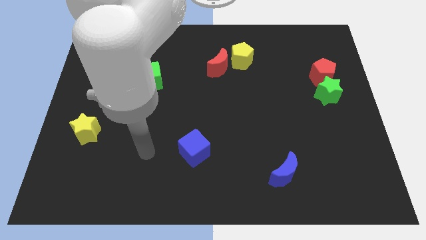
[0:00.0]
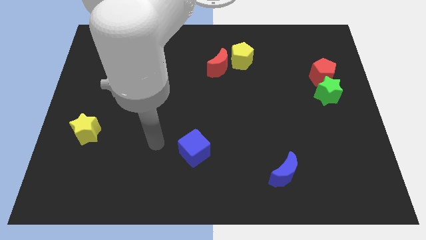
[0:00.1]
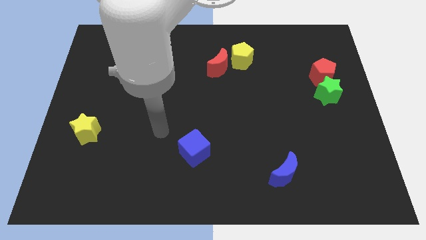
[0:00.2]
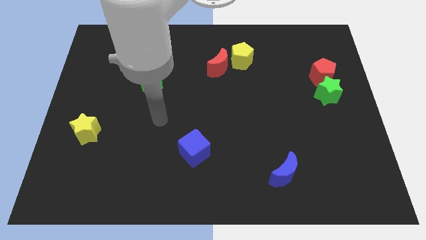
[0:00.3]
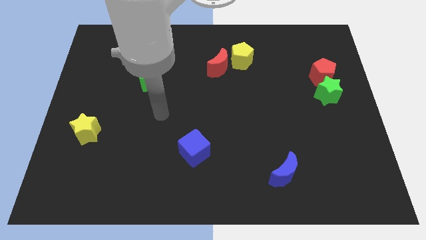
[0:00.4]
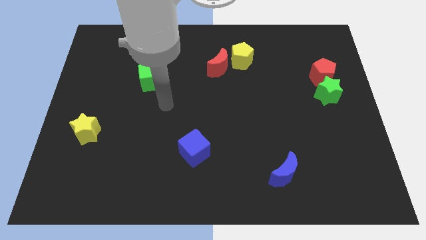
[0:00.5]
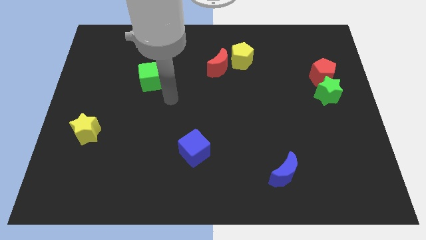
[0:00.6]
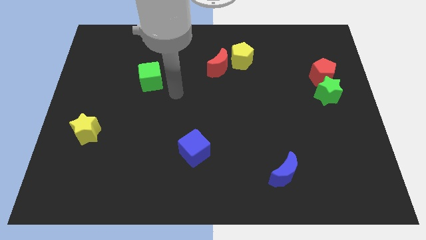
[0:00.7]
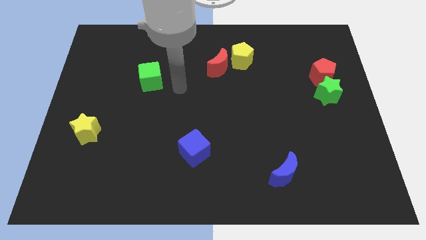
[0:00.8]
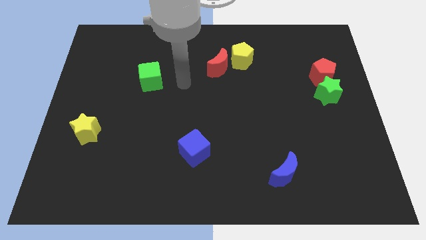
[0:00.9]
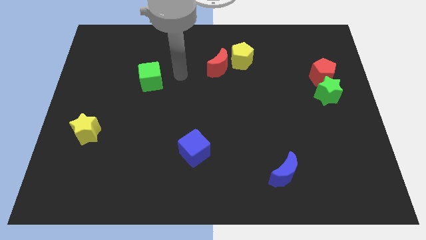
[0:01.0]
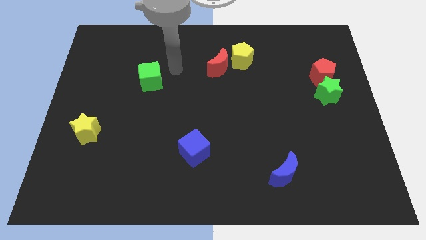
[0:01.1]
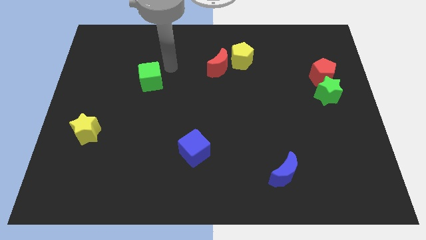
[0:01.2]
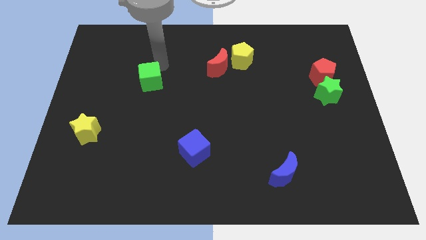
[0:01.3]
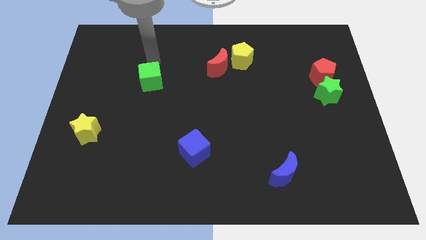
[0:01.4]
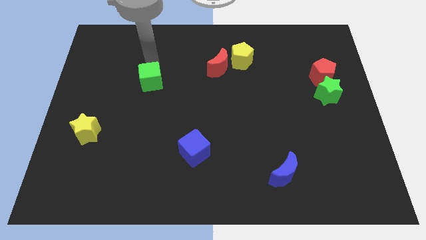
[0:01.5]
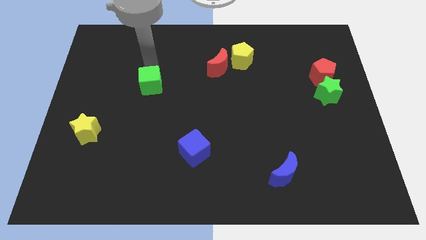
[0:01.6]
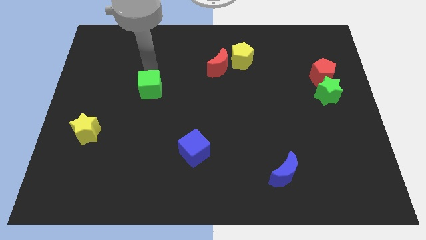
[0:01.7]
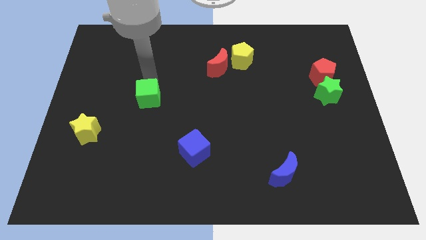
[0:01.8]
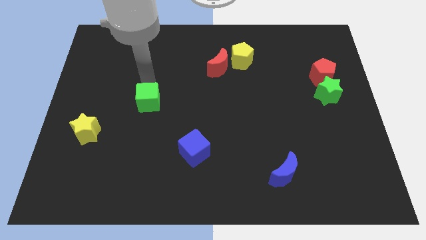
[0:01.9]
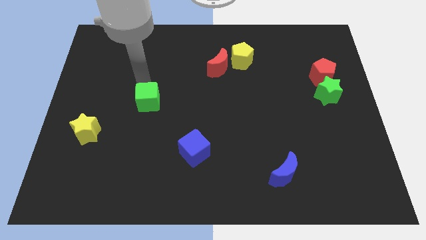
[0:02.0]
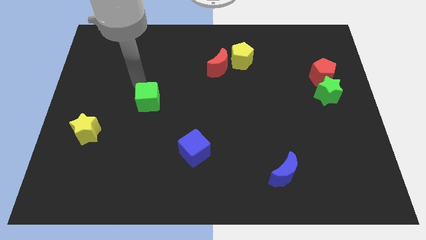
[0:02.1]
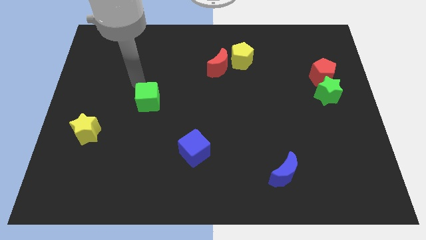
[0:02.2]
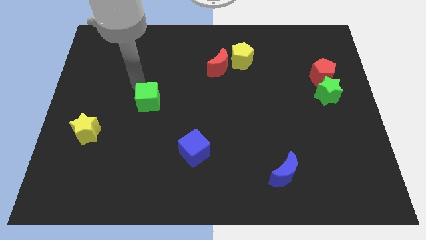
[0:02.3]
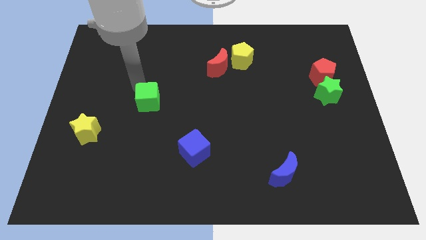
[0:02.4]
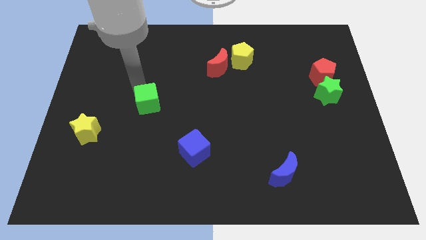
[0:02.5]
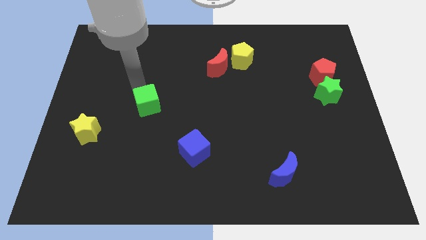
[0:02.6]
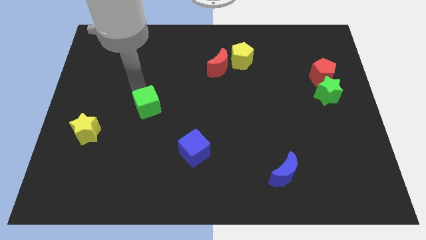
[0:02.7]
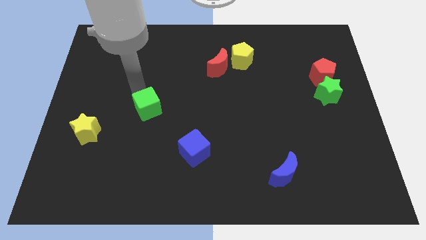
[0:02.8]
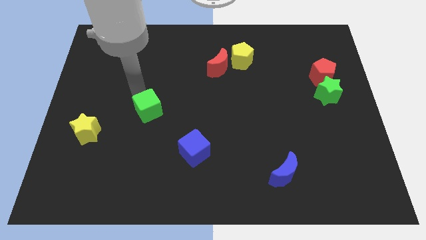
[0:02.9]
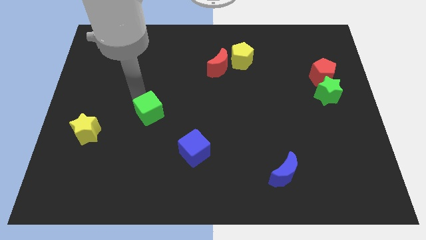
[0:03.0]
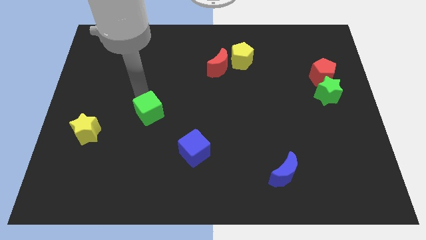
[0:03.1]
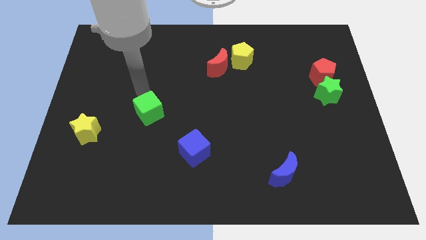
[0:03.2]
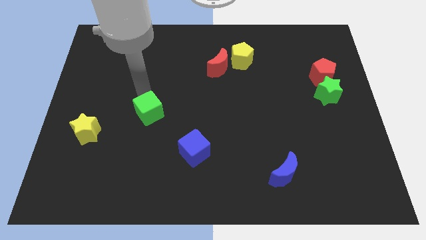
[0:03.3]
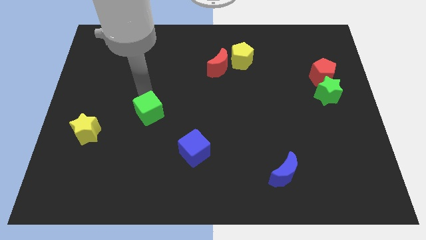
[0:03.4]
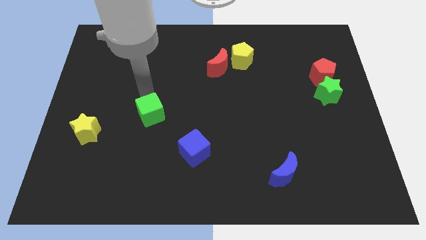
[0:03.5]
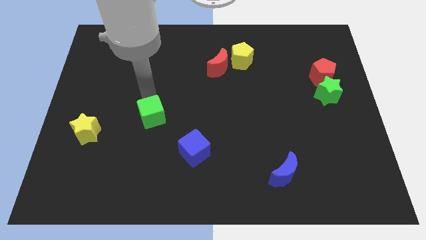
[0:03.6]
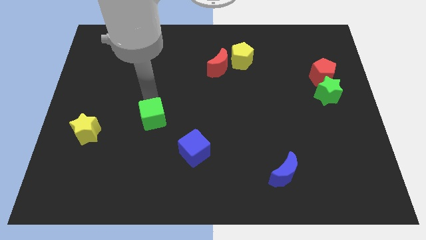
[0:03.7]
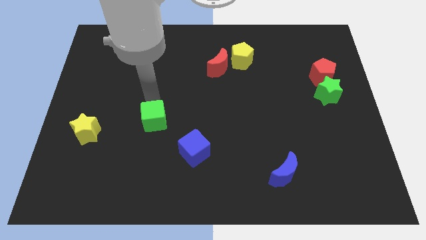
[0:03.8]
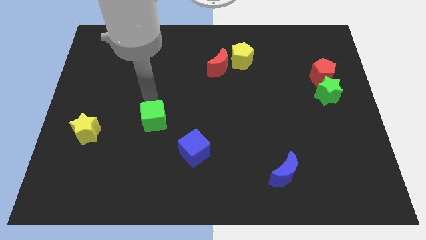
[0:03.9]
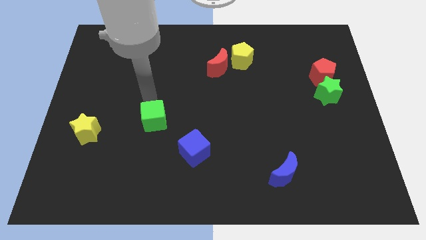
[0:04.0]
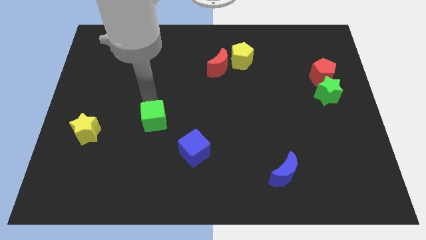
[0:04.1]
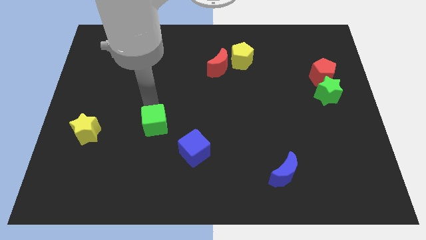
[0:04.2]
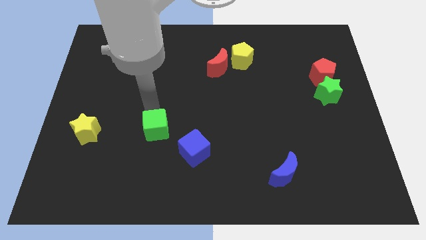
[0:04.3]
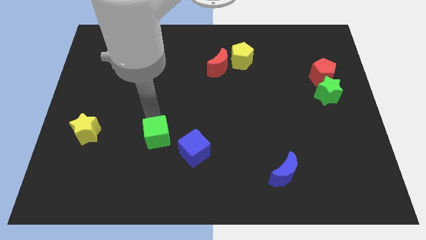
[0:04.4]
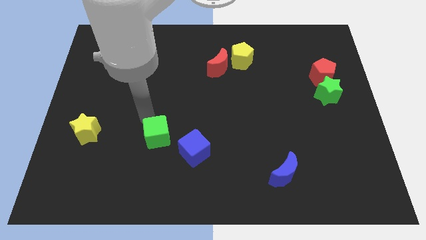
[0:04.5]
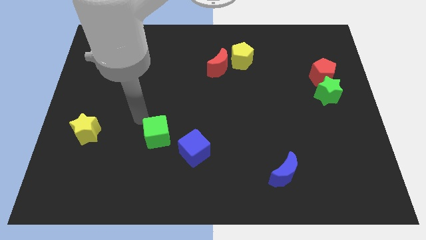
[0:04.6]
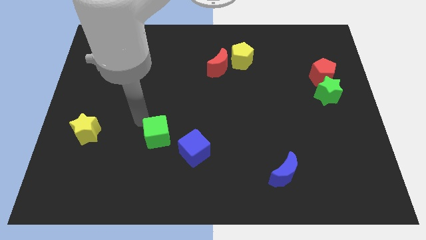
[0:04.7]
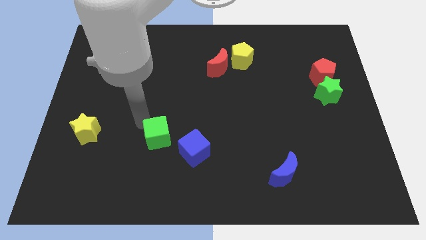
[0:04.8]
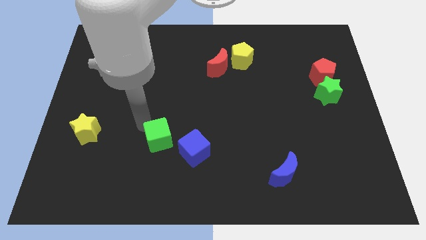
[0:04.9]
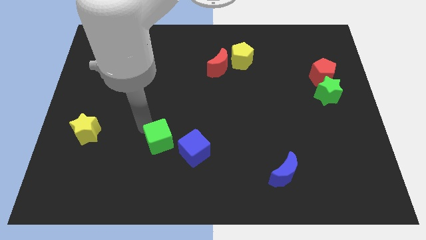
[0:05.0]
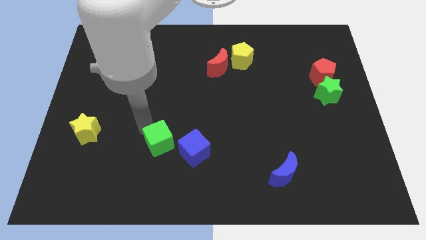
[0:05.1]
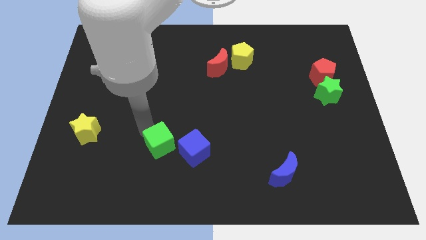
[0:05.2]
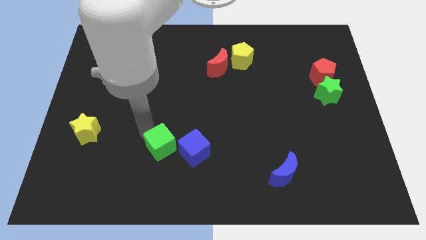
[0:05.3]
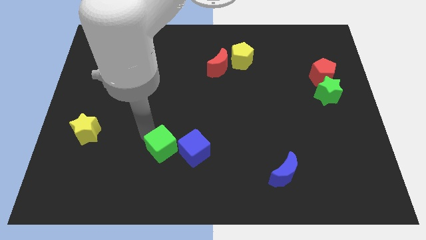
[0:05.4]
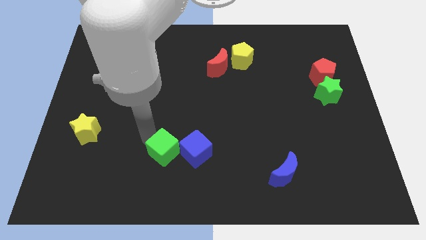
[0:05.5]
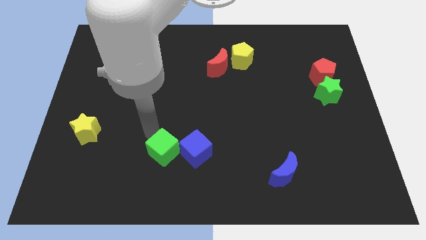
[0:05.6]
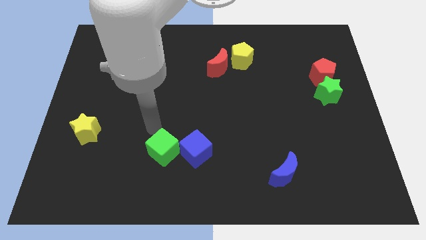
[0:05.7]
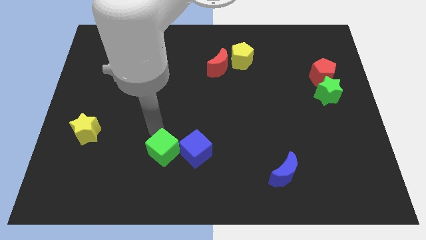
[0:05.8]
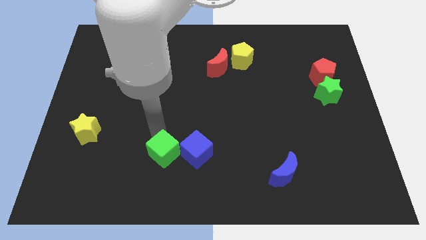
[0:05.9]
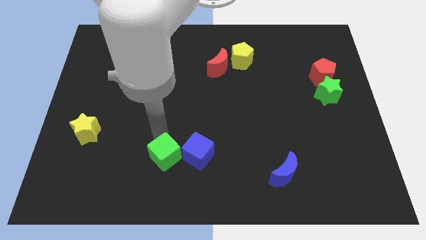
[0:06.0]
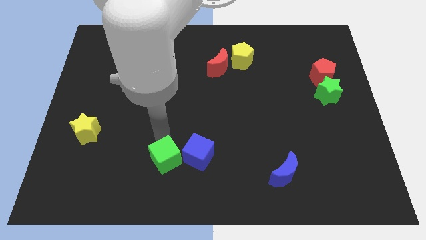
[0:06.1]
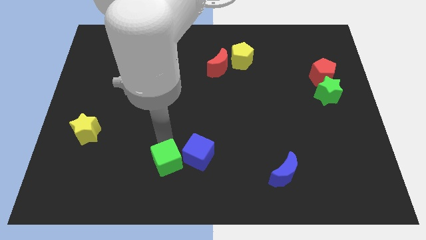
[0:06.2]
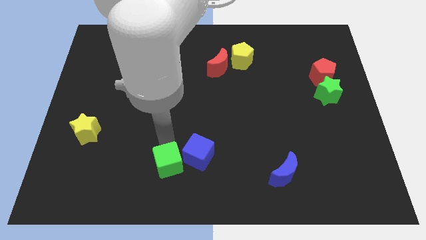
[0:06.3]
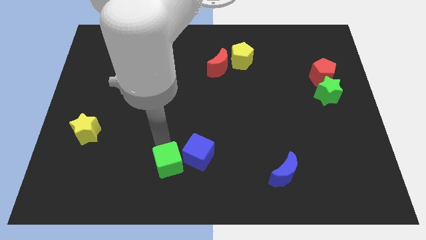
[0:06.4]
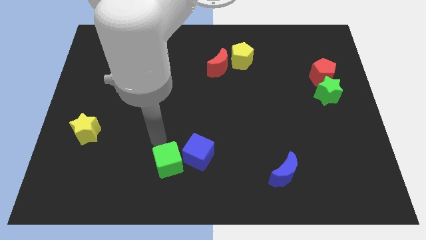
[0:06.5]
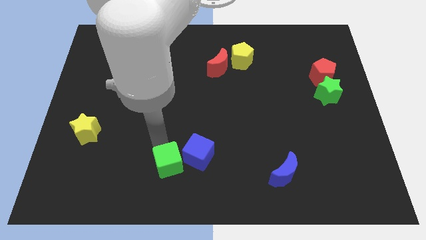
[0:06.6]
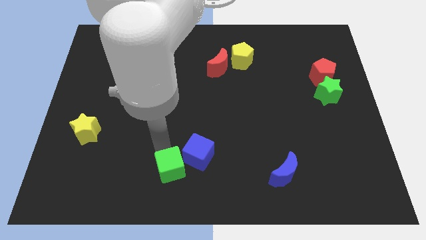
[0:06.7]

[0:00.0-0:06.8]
move the green cube to the bottom side

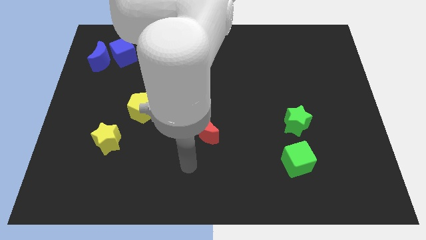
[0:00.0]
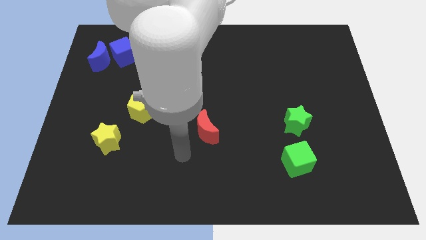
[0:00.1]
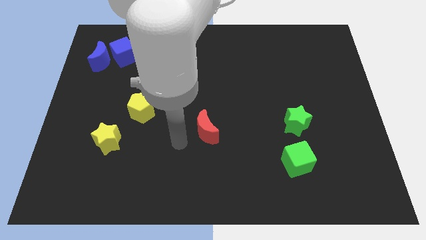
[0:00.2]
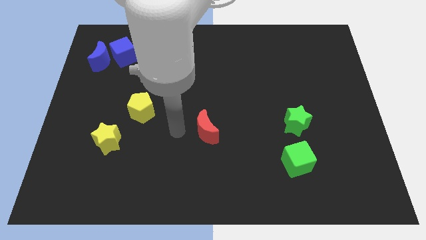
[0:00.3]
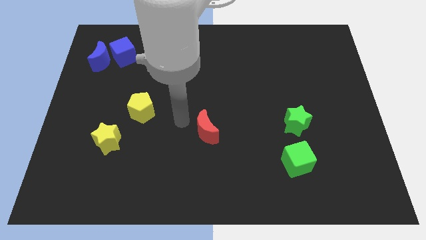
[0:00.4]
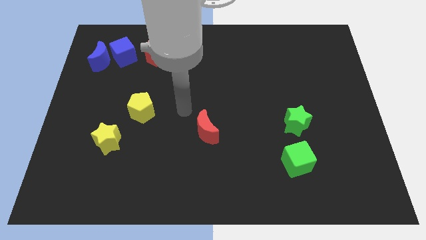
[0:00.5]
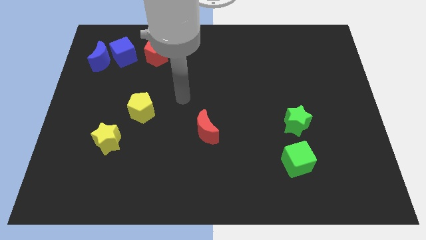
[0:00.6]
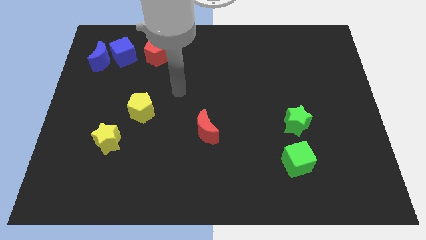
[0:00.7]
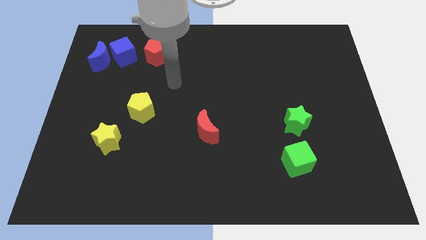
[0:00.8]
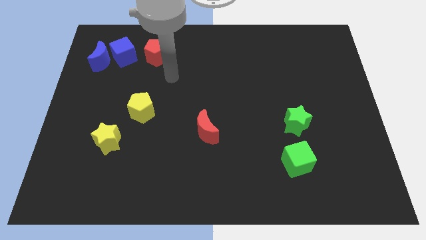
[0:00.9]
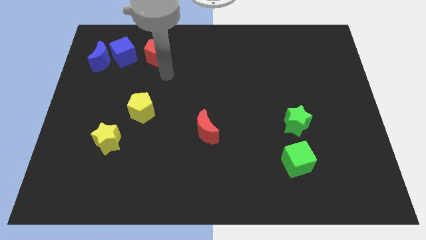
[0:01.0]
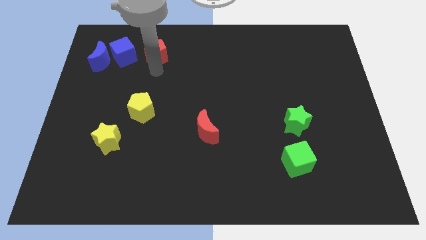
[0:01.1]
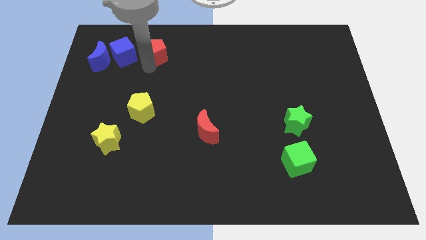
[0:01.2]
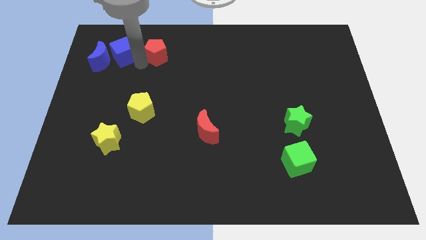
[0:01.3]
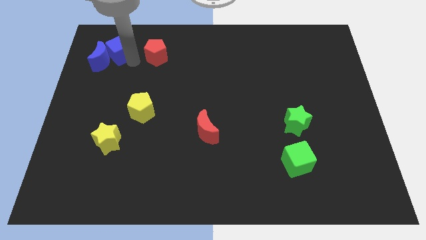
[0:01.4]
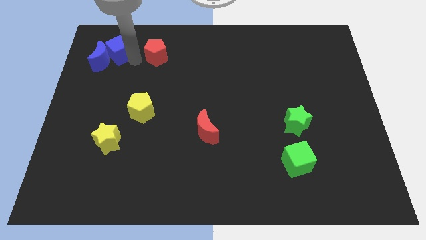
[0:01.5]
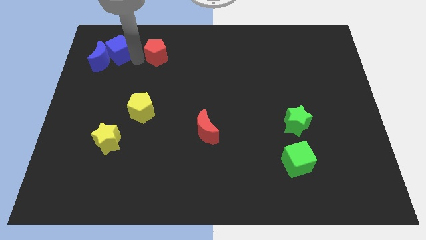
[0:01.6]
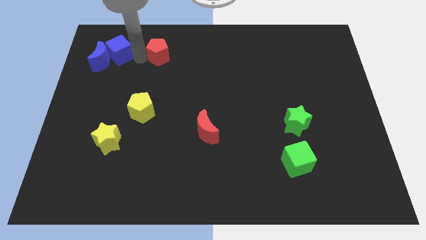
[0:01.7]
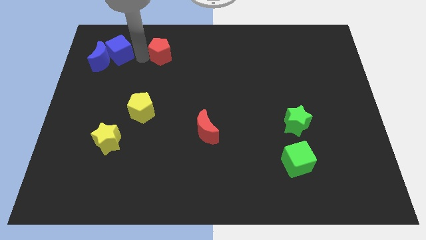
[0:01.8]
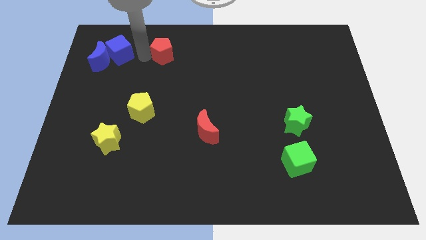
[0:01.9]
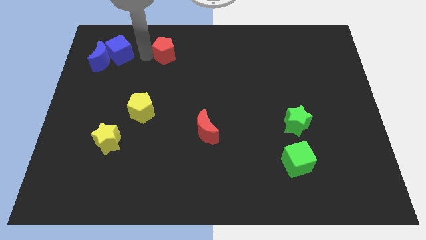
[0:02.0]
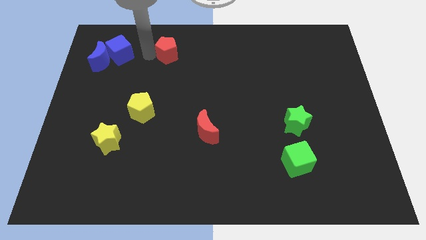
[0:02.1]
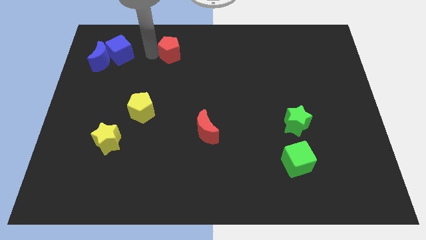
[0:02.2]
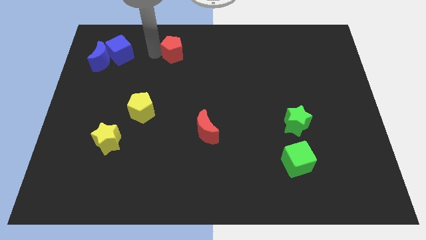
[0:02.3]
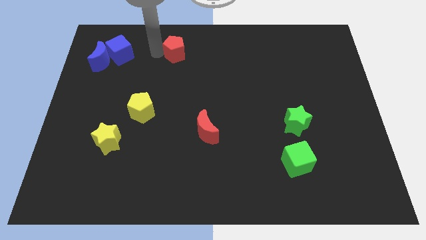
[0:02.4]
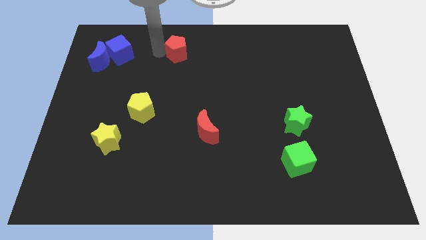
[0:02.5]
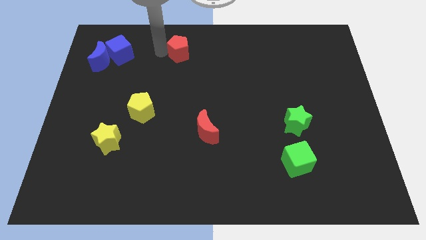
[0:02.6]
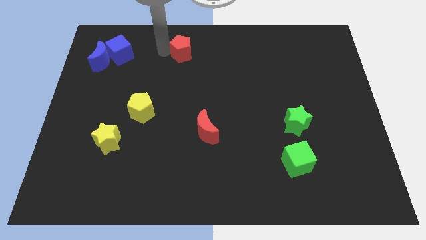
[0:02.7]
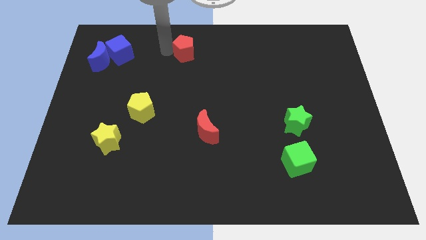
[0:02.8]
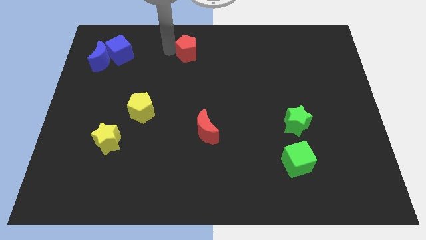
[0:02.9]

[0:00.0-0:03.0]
move the red pentagon to the top side
